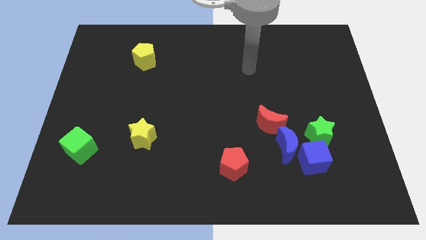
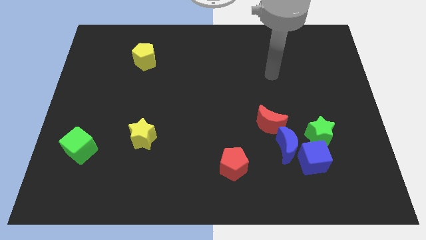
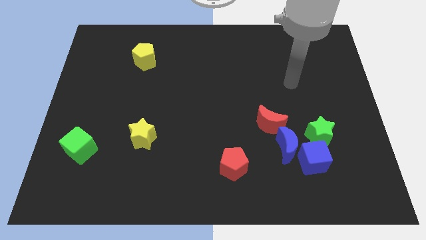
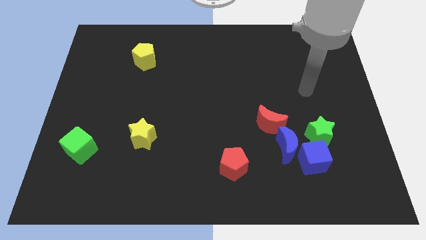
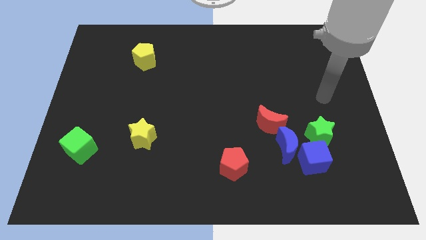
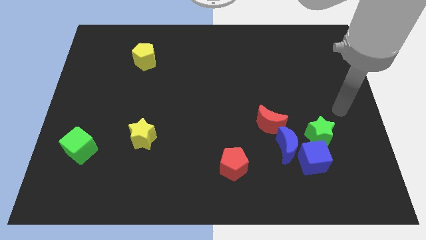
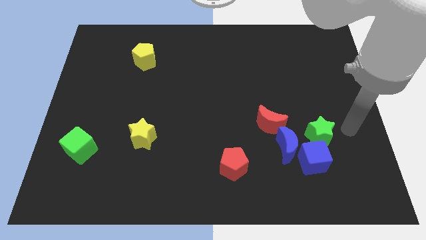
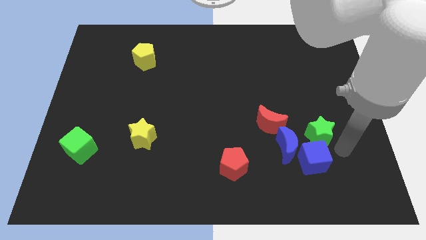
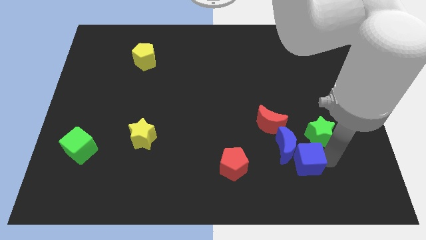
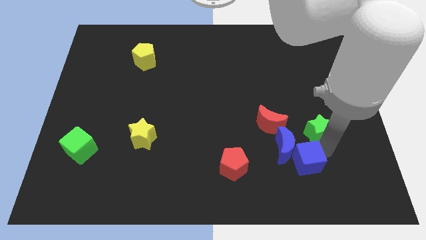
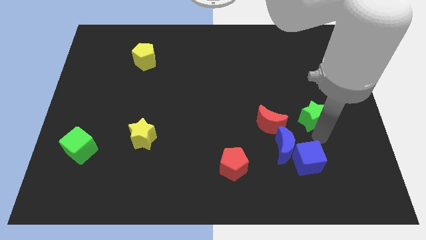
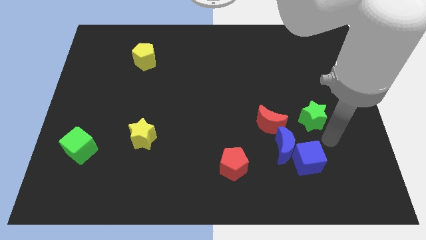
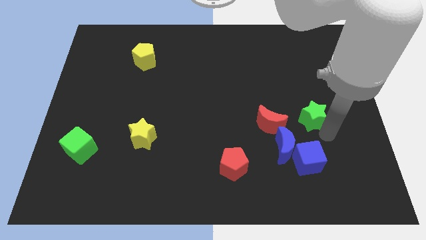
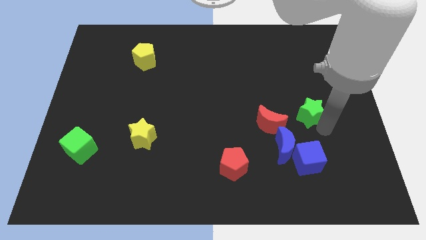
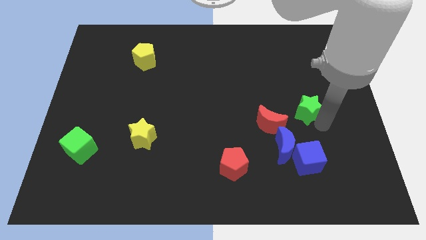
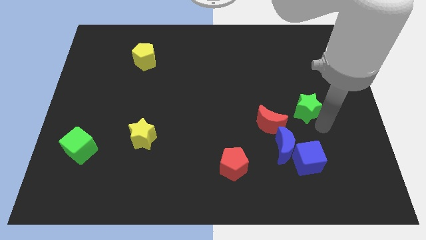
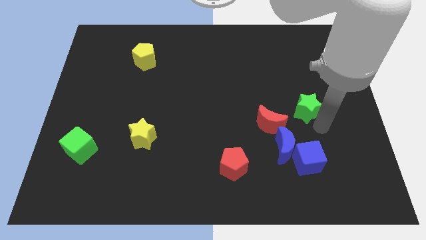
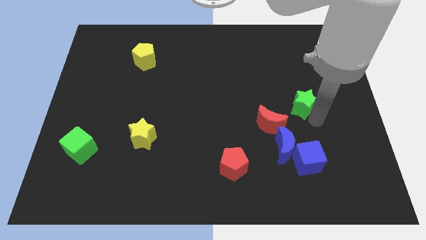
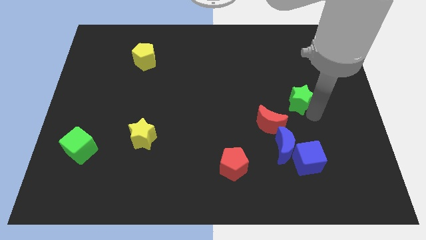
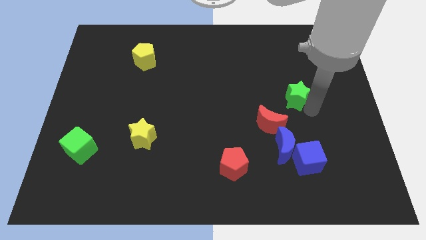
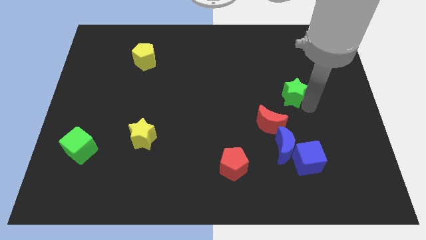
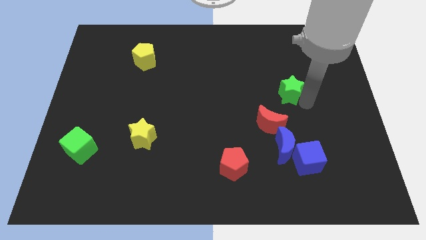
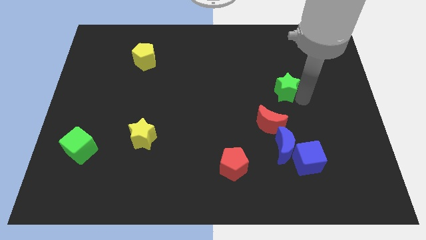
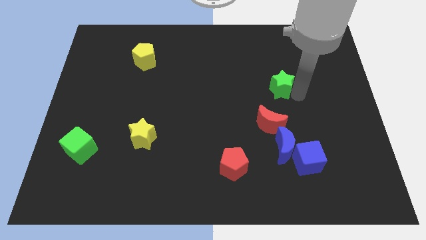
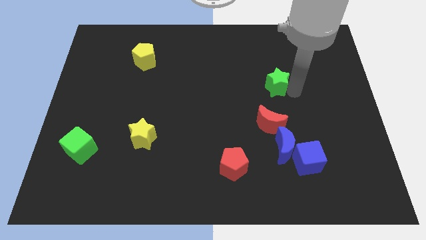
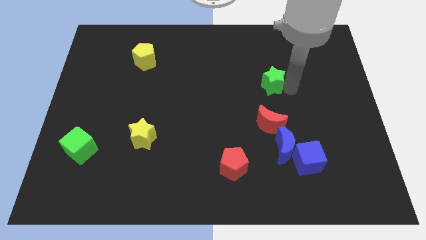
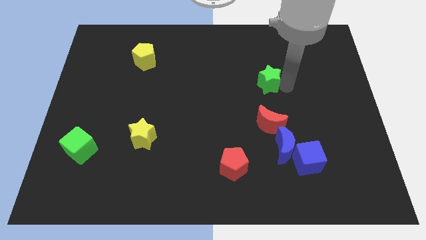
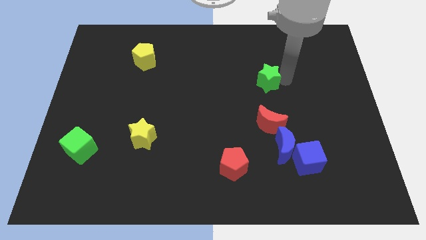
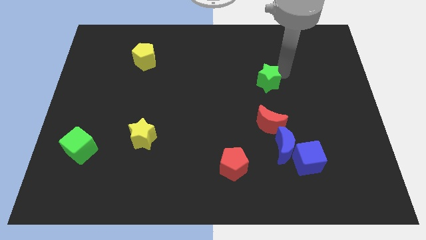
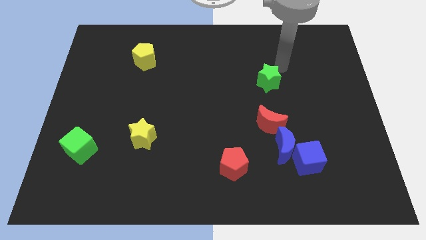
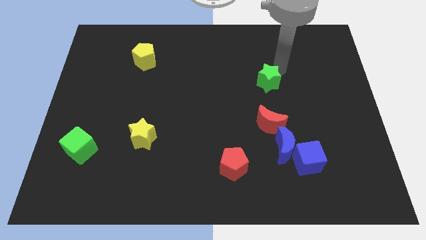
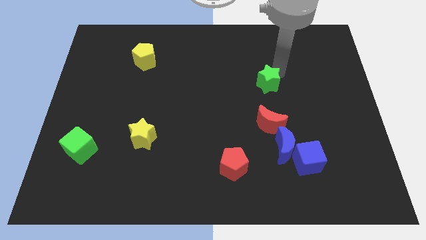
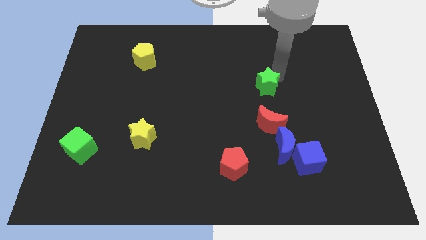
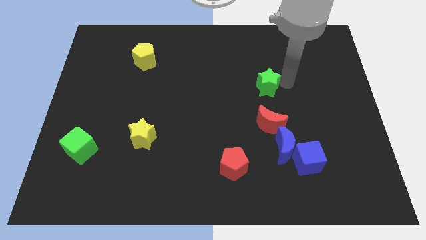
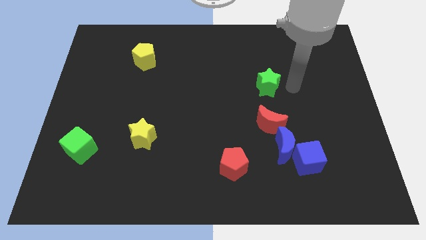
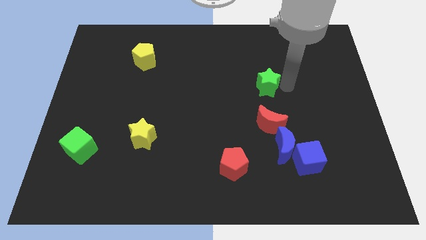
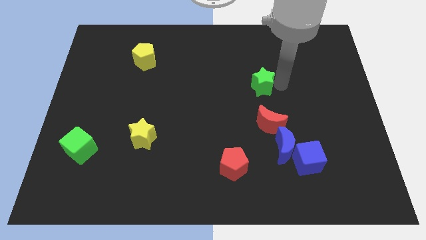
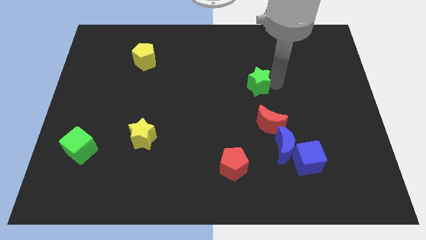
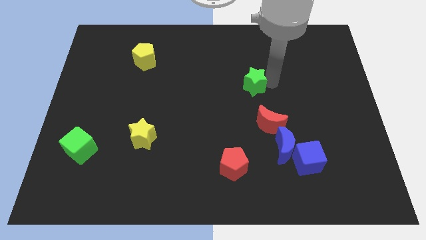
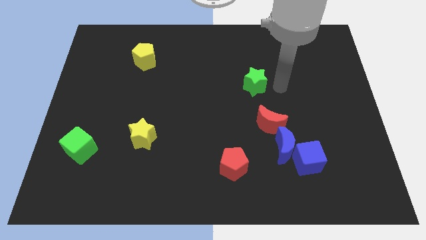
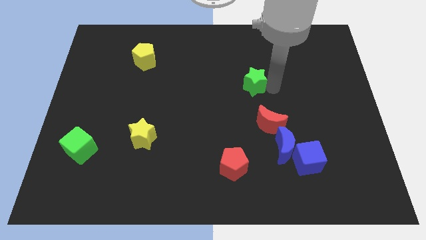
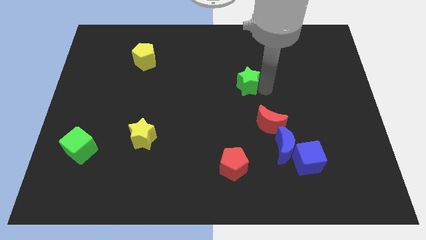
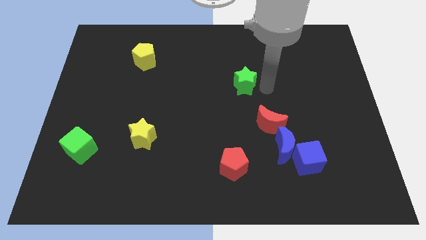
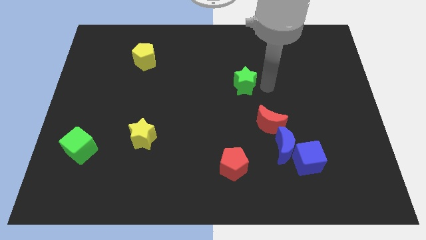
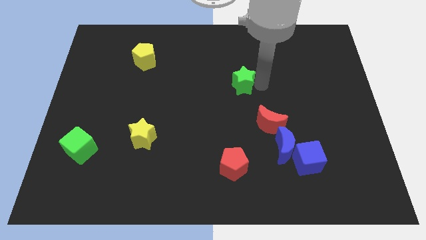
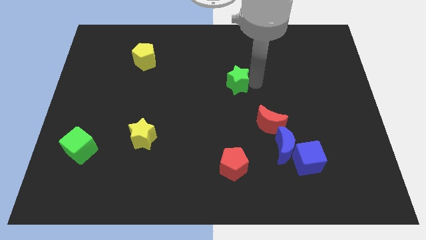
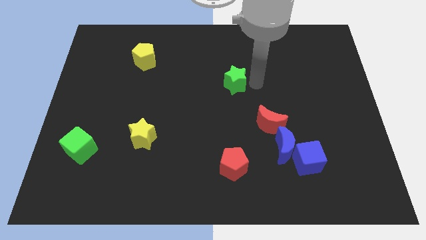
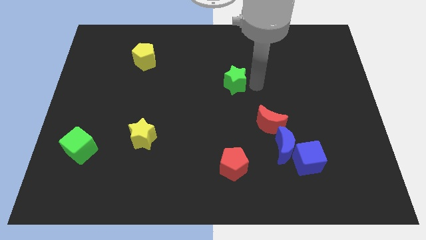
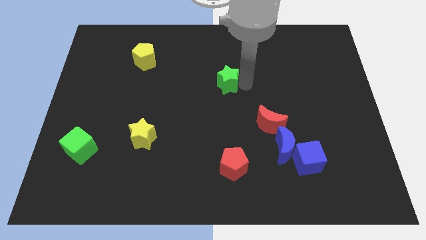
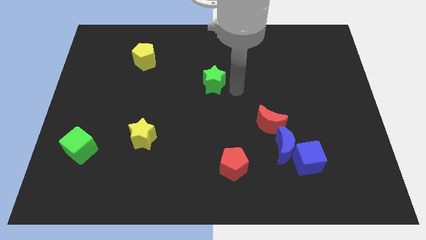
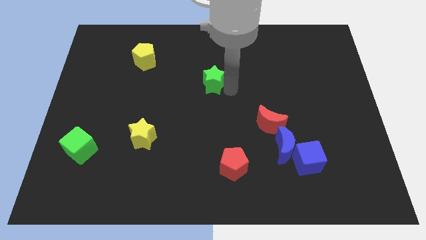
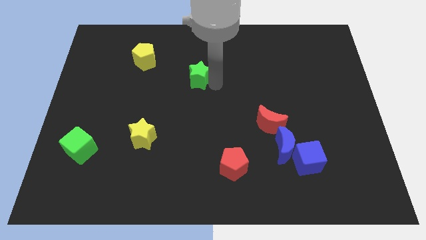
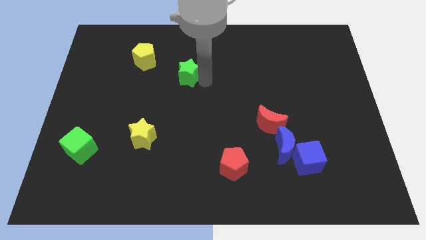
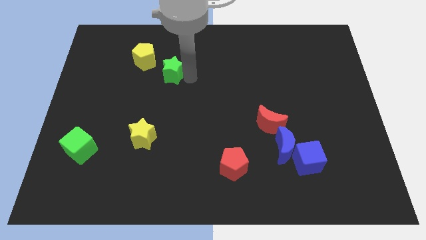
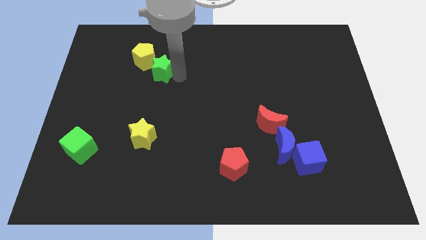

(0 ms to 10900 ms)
push the green star to the yellow pentagon
